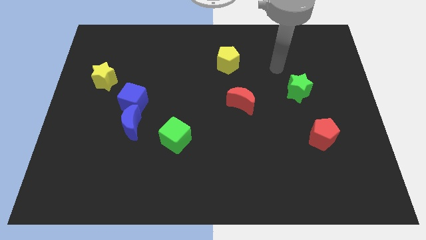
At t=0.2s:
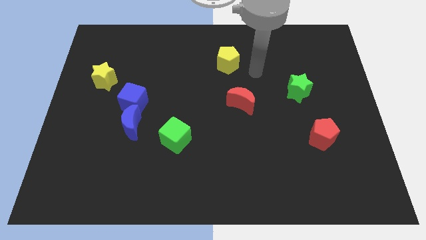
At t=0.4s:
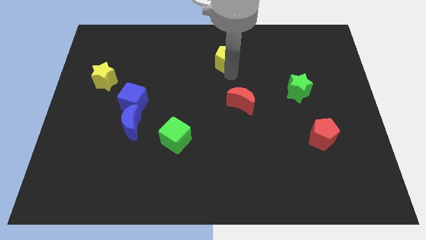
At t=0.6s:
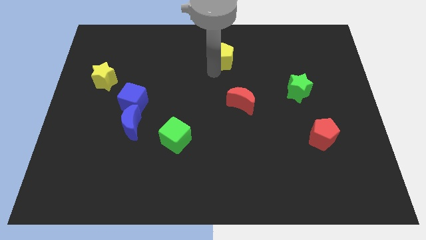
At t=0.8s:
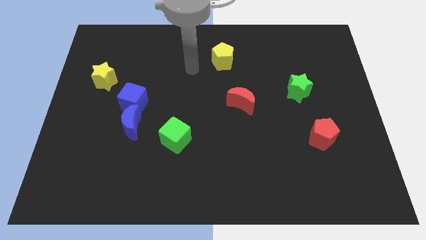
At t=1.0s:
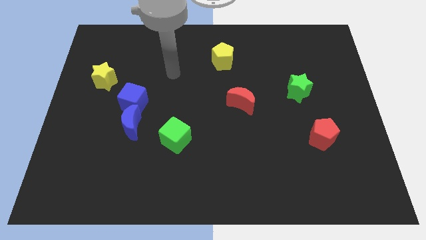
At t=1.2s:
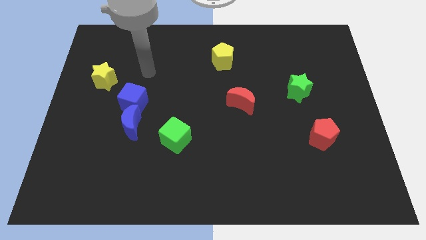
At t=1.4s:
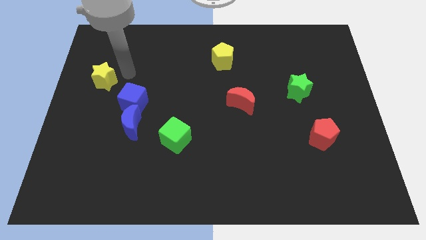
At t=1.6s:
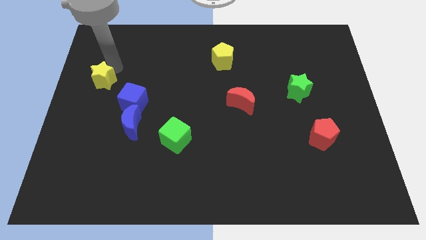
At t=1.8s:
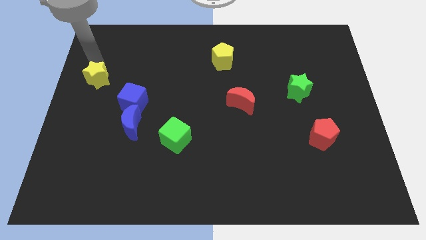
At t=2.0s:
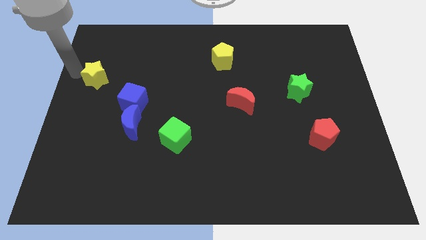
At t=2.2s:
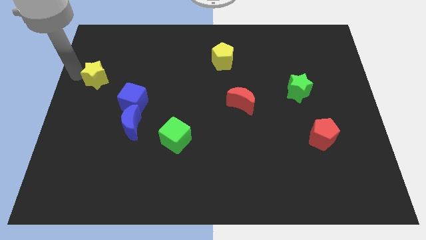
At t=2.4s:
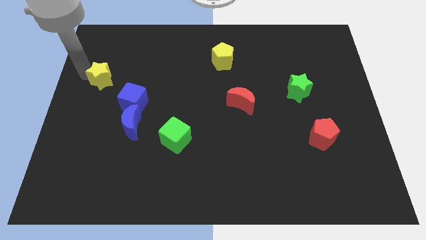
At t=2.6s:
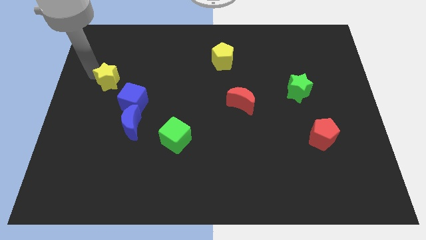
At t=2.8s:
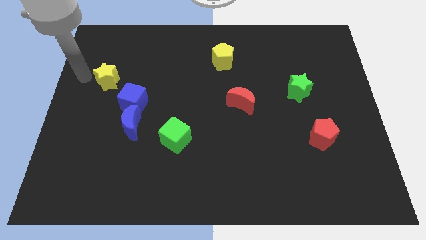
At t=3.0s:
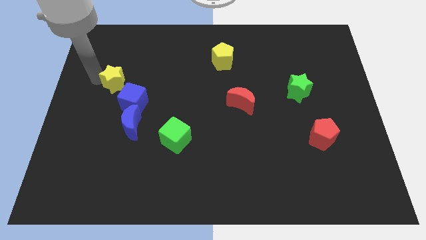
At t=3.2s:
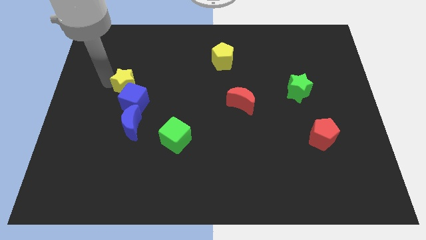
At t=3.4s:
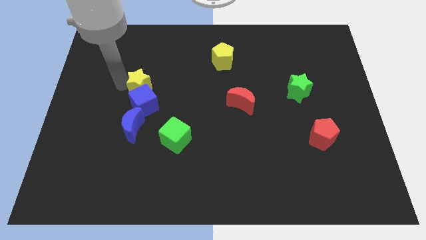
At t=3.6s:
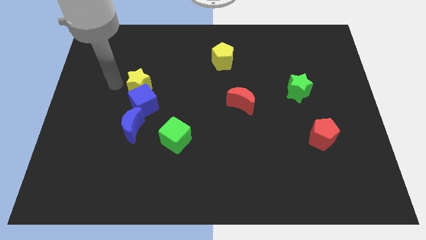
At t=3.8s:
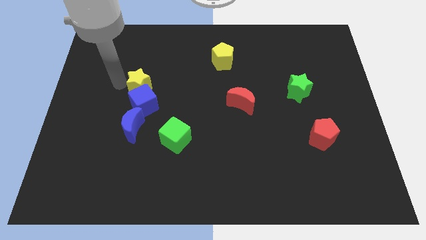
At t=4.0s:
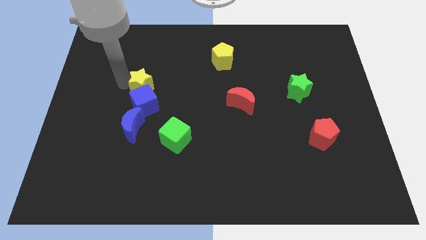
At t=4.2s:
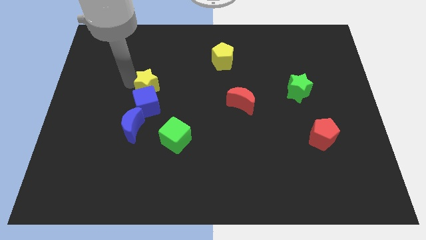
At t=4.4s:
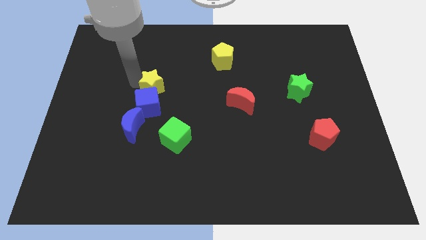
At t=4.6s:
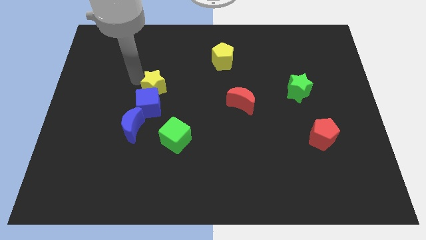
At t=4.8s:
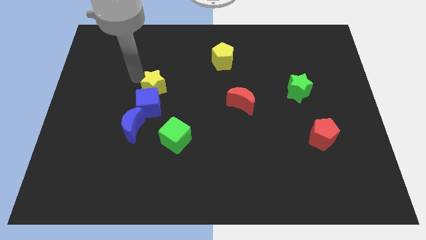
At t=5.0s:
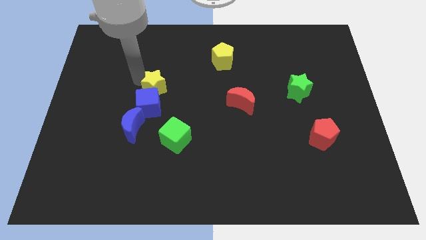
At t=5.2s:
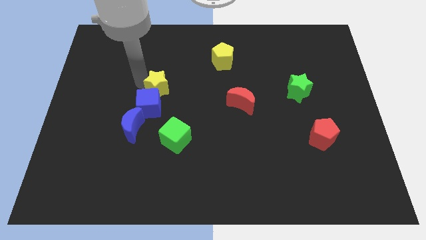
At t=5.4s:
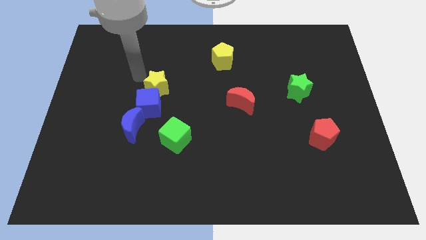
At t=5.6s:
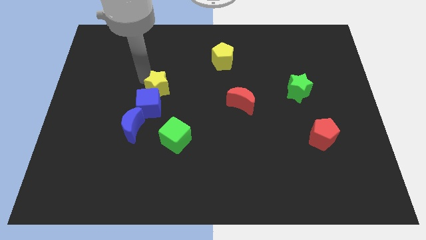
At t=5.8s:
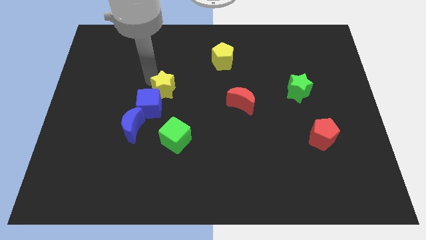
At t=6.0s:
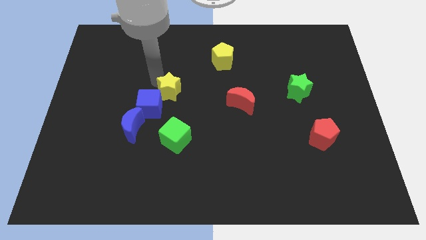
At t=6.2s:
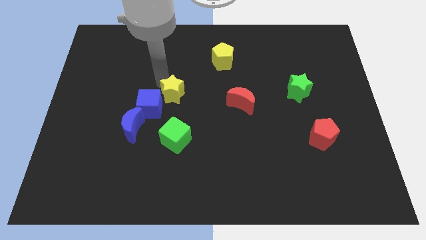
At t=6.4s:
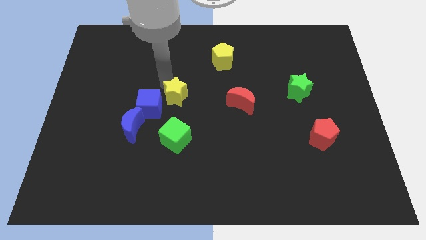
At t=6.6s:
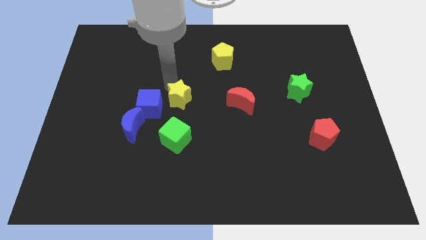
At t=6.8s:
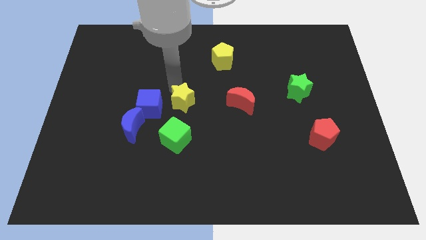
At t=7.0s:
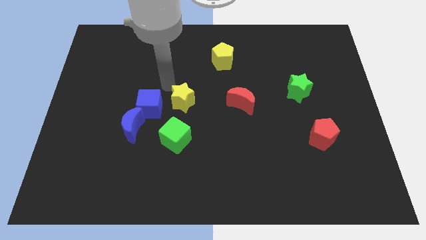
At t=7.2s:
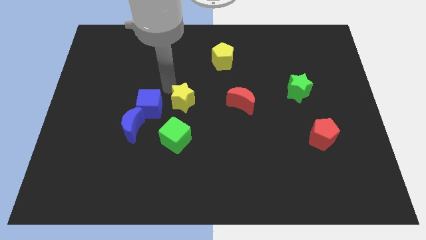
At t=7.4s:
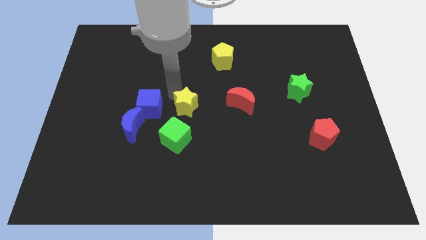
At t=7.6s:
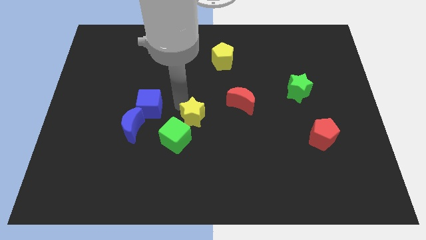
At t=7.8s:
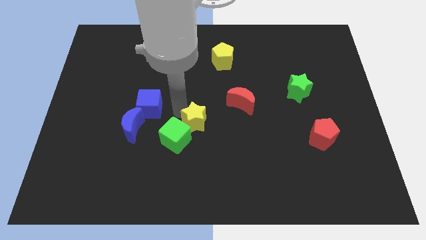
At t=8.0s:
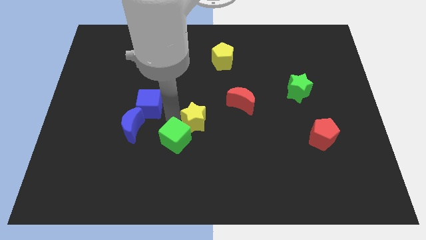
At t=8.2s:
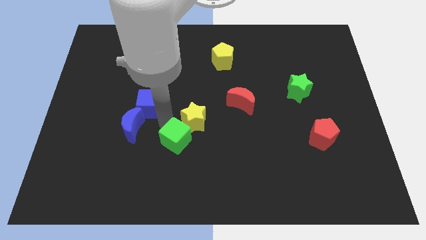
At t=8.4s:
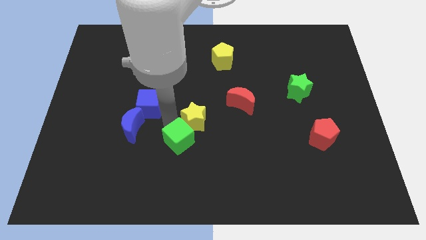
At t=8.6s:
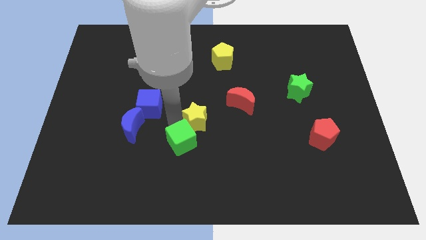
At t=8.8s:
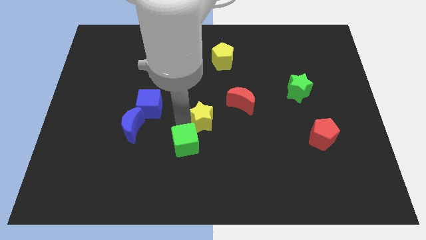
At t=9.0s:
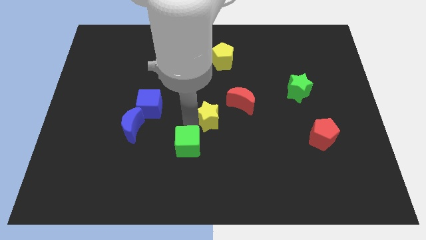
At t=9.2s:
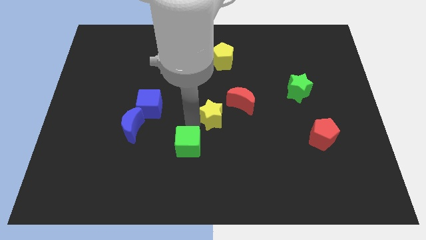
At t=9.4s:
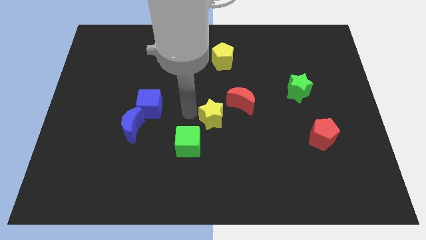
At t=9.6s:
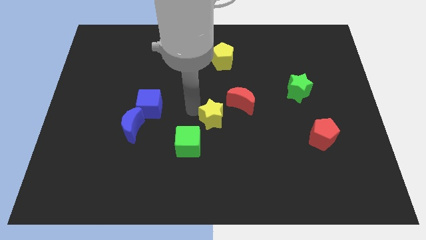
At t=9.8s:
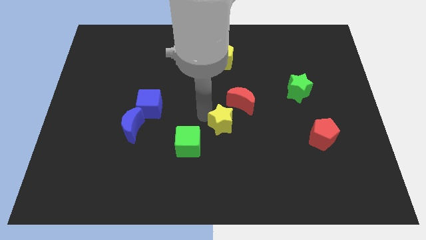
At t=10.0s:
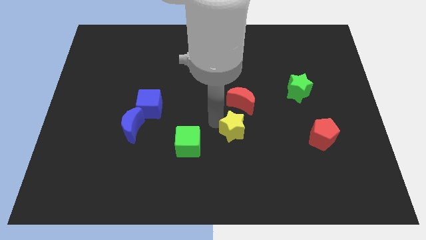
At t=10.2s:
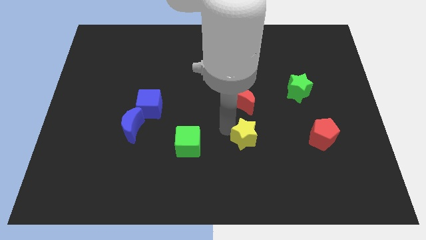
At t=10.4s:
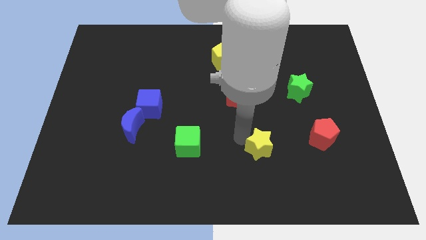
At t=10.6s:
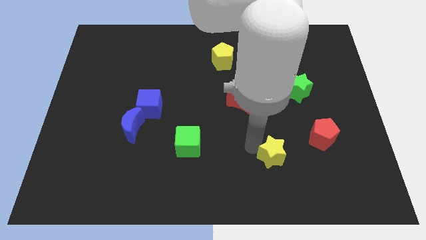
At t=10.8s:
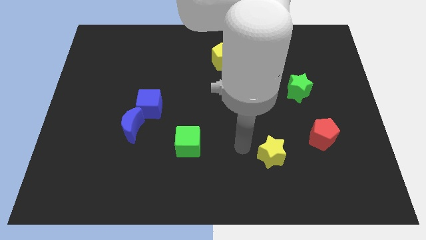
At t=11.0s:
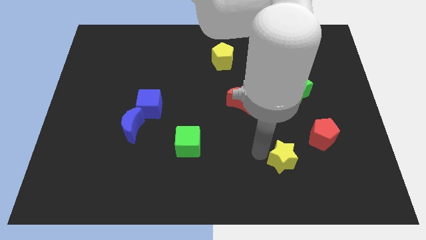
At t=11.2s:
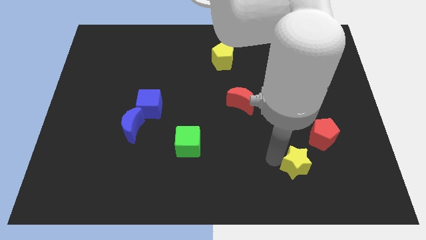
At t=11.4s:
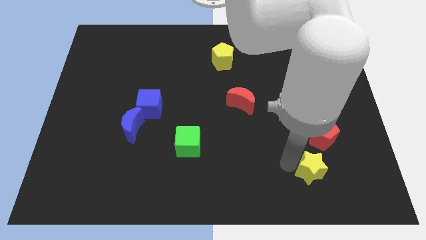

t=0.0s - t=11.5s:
put the yellow star below the red pentagon

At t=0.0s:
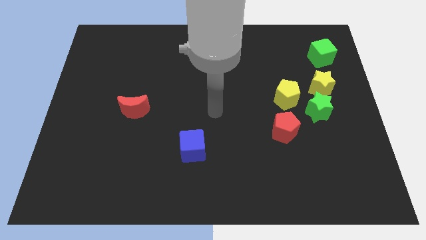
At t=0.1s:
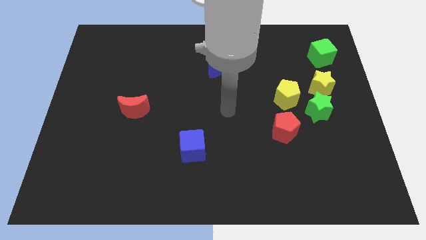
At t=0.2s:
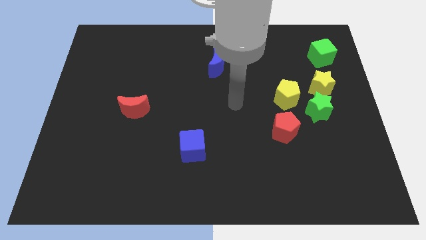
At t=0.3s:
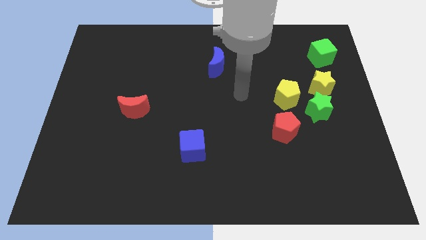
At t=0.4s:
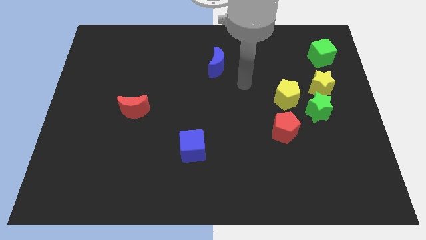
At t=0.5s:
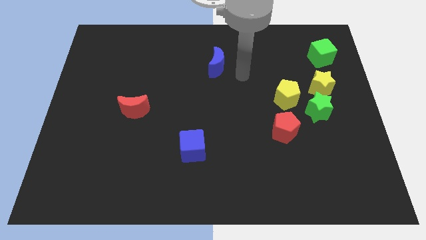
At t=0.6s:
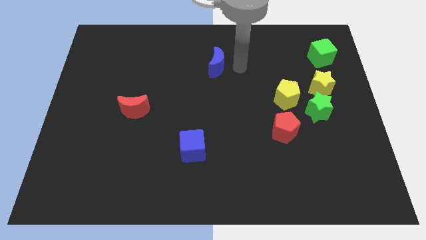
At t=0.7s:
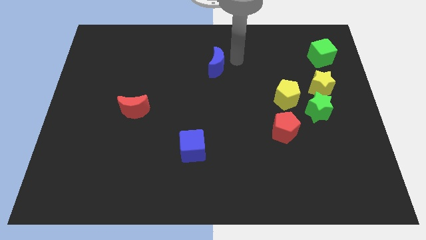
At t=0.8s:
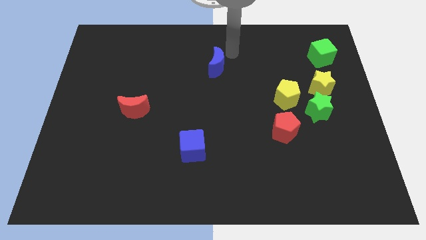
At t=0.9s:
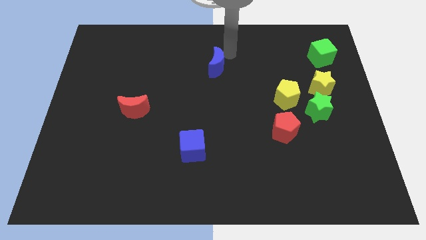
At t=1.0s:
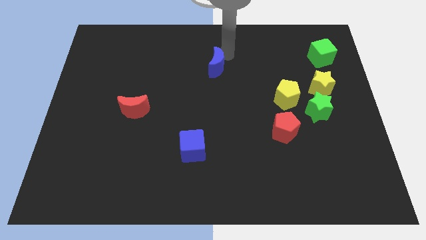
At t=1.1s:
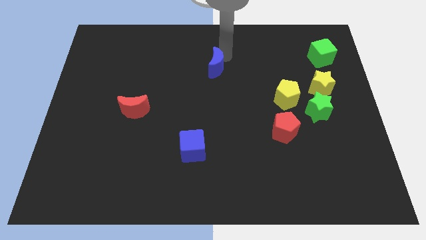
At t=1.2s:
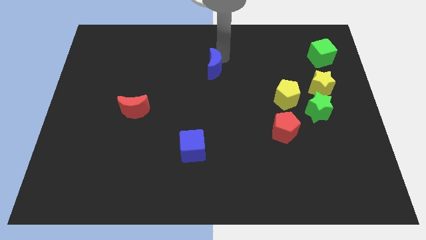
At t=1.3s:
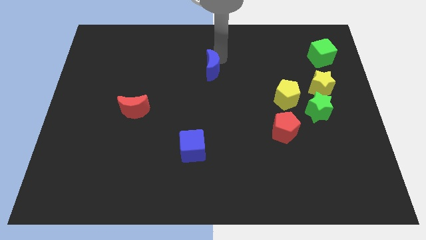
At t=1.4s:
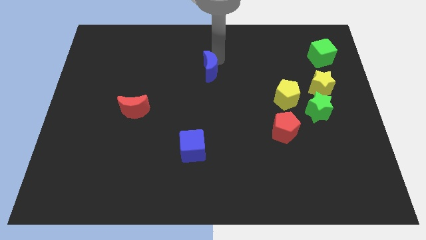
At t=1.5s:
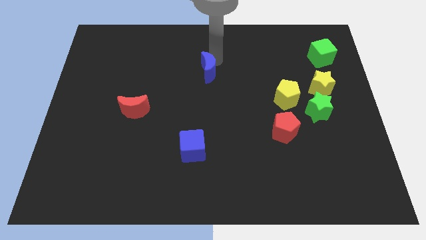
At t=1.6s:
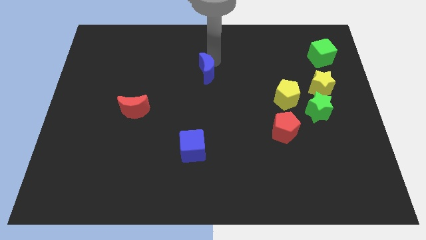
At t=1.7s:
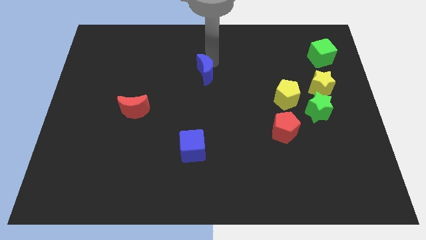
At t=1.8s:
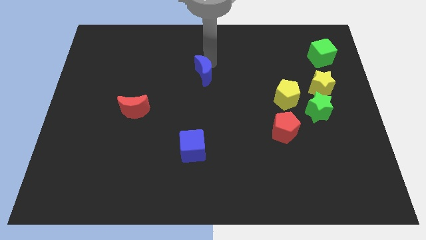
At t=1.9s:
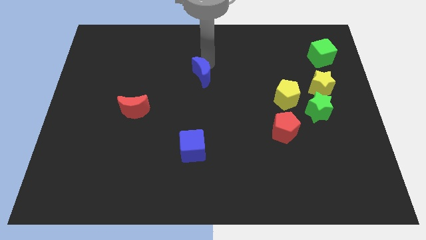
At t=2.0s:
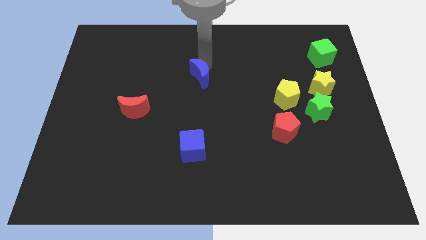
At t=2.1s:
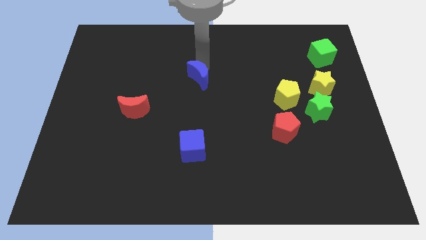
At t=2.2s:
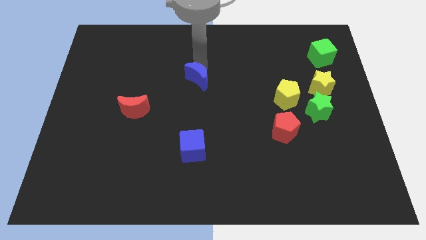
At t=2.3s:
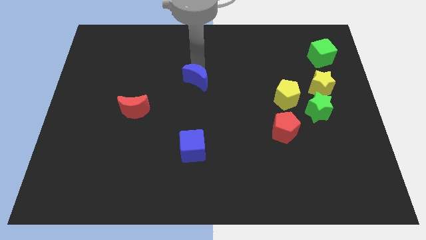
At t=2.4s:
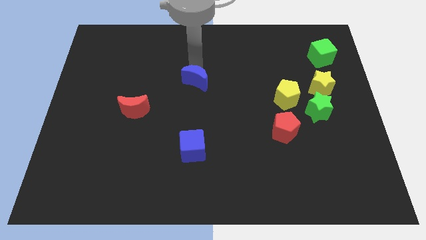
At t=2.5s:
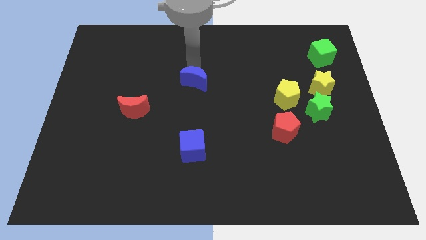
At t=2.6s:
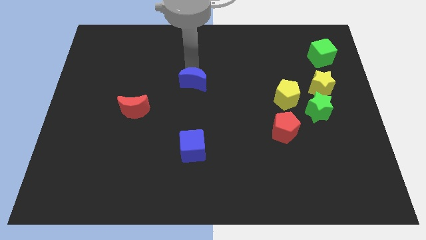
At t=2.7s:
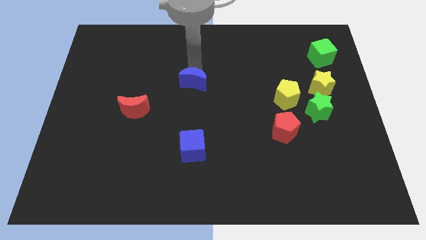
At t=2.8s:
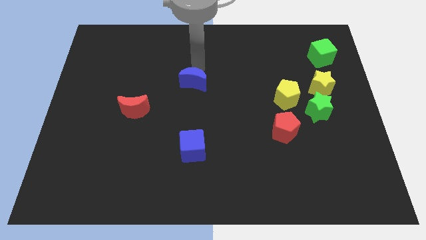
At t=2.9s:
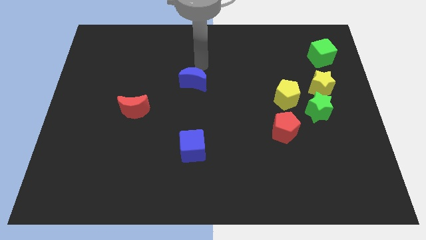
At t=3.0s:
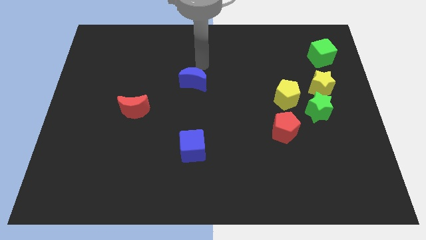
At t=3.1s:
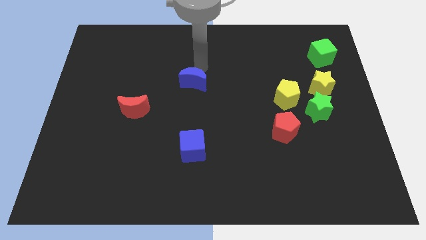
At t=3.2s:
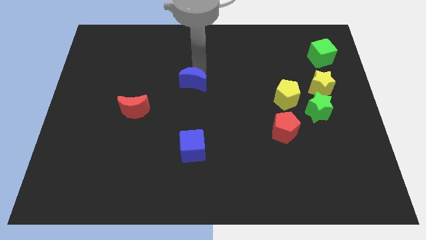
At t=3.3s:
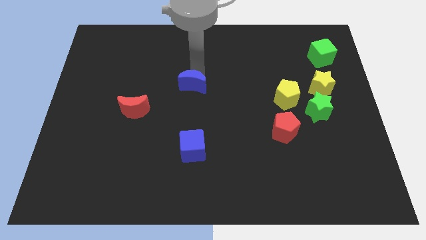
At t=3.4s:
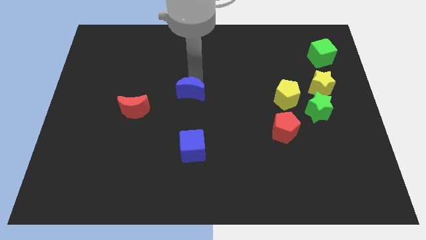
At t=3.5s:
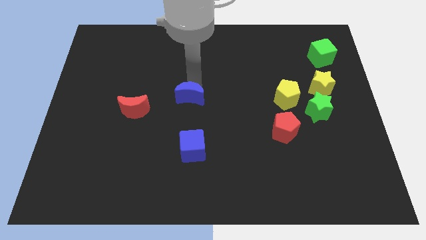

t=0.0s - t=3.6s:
put the blue moon to the right of the red moon
